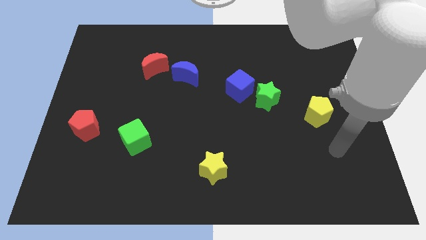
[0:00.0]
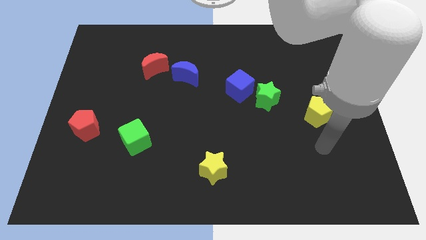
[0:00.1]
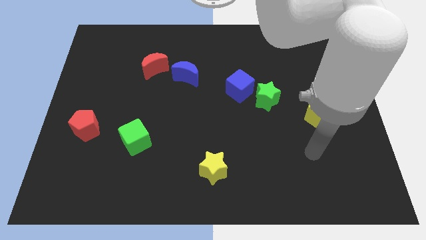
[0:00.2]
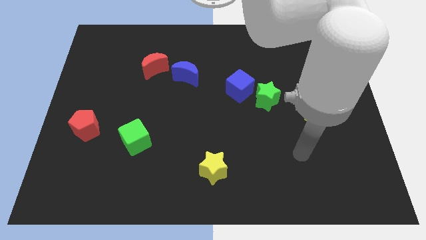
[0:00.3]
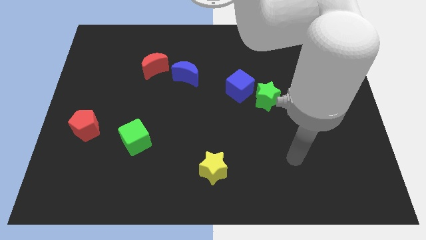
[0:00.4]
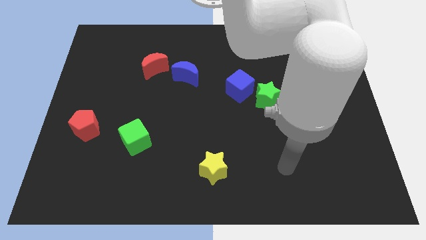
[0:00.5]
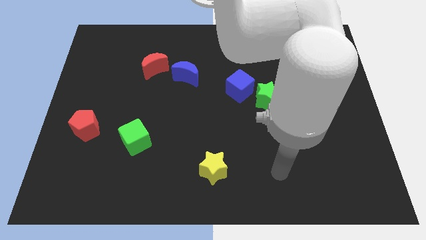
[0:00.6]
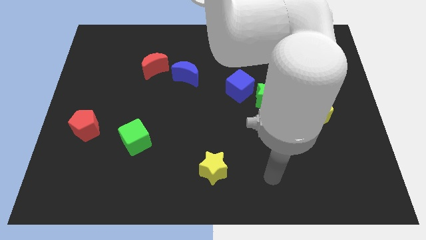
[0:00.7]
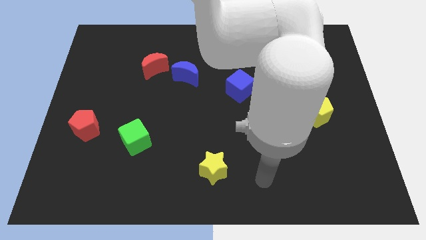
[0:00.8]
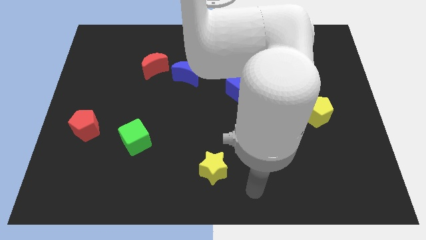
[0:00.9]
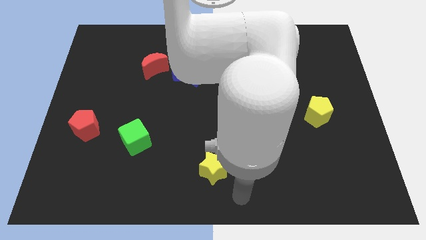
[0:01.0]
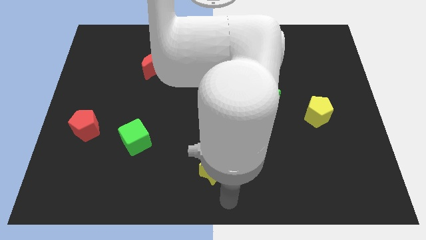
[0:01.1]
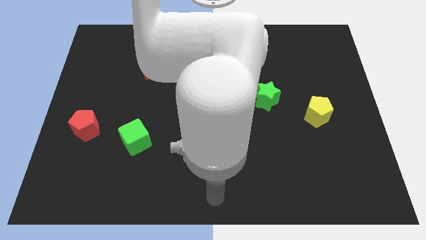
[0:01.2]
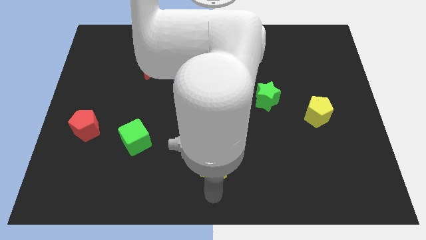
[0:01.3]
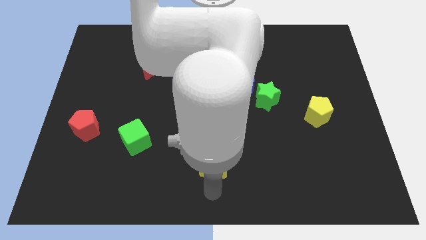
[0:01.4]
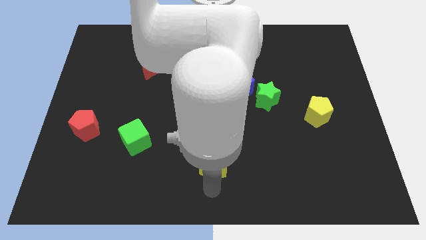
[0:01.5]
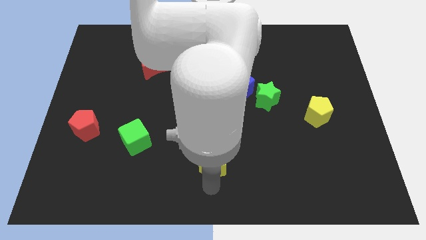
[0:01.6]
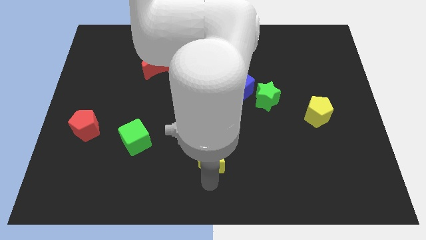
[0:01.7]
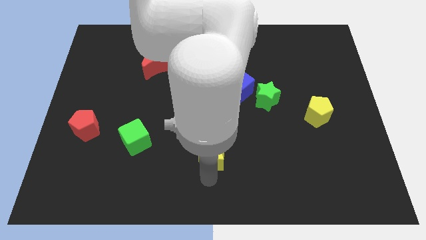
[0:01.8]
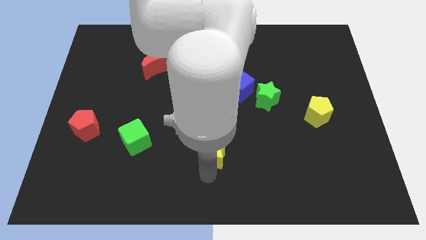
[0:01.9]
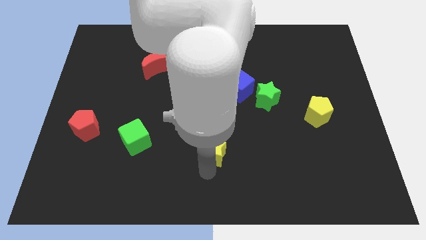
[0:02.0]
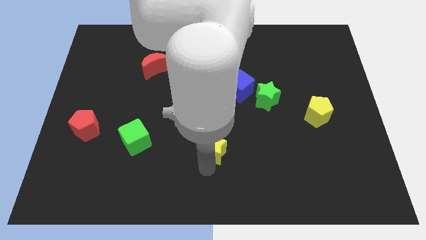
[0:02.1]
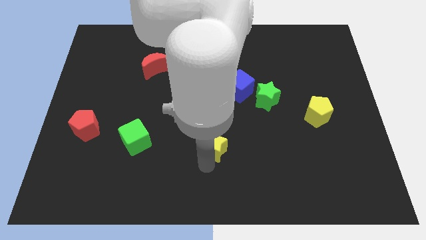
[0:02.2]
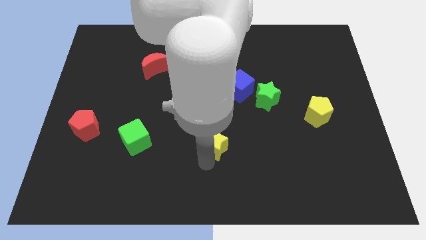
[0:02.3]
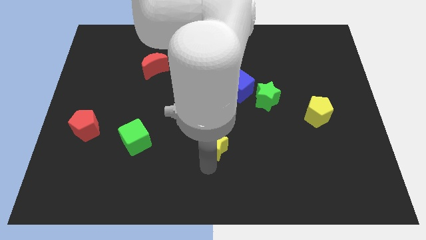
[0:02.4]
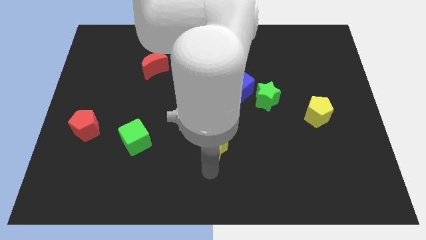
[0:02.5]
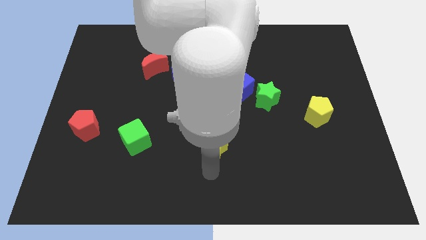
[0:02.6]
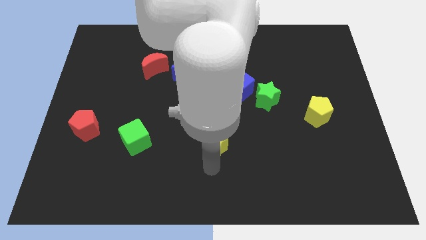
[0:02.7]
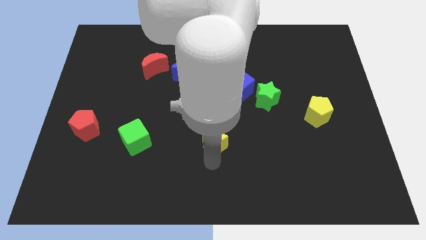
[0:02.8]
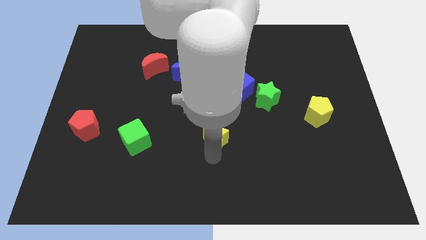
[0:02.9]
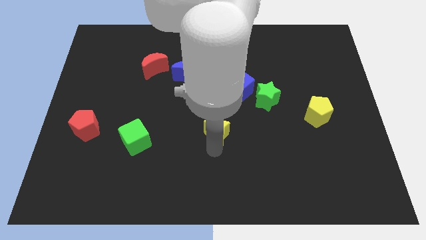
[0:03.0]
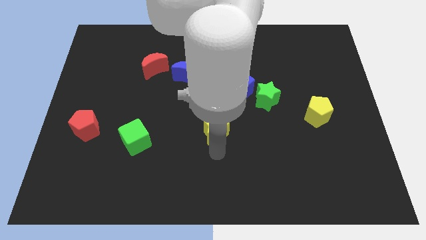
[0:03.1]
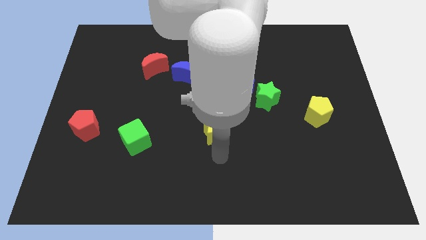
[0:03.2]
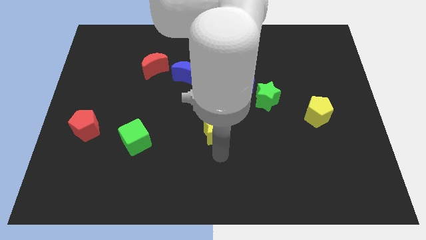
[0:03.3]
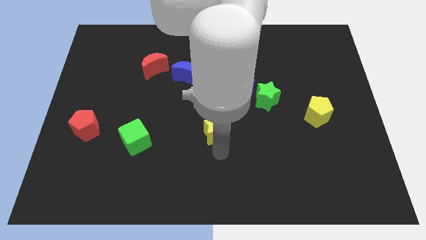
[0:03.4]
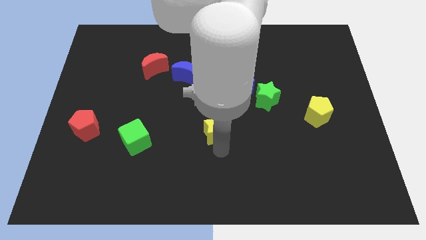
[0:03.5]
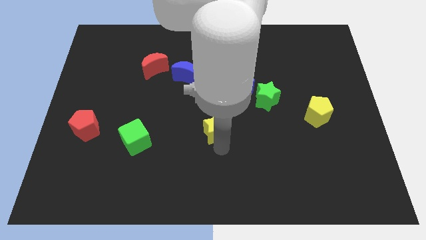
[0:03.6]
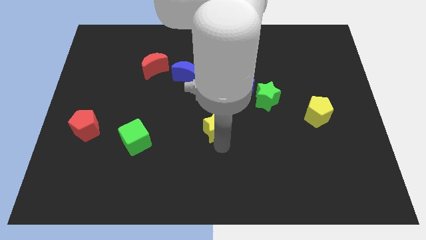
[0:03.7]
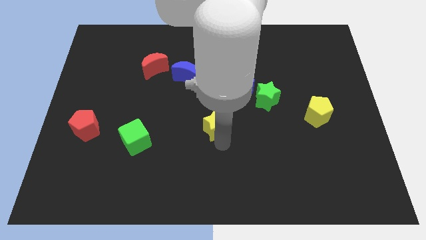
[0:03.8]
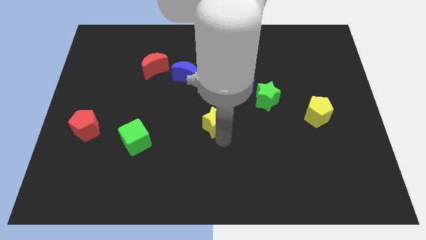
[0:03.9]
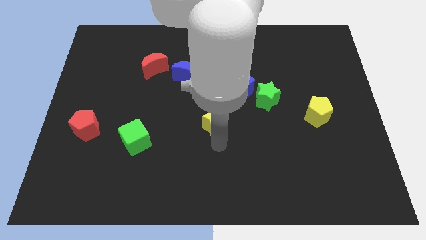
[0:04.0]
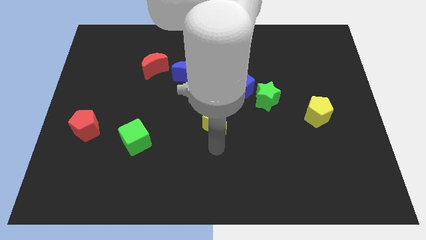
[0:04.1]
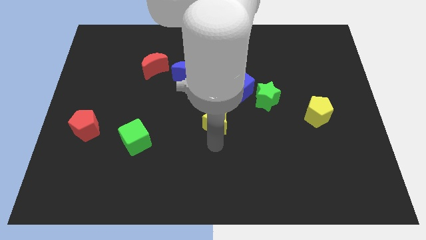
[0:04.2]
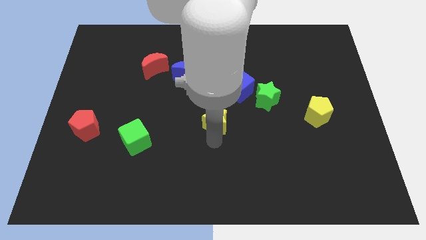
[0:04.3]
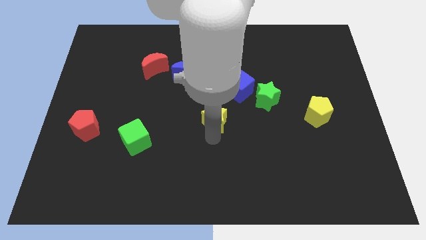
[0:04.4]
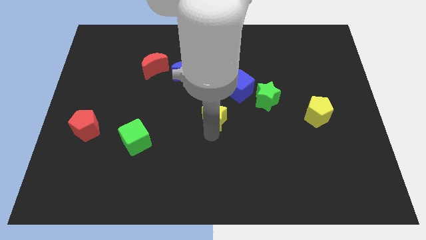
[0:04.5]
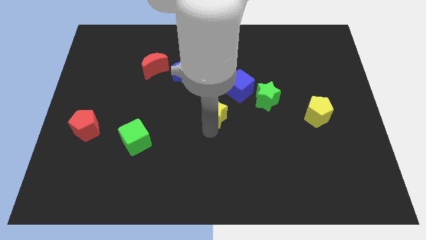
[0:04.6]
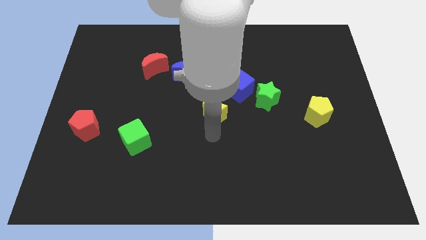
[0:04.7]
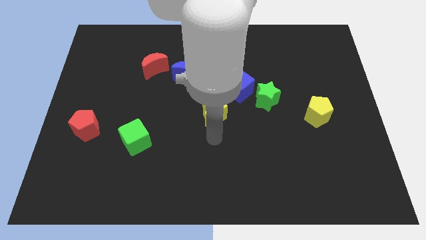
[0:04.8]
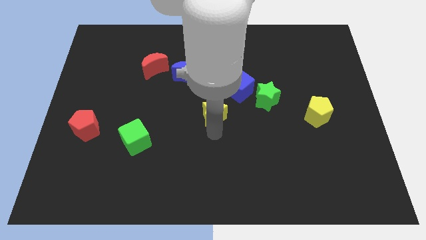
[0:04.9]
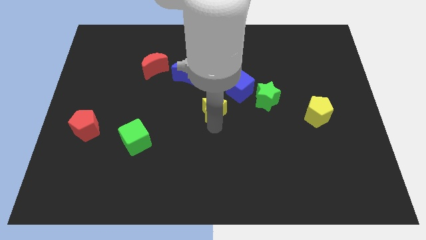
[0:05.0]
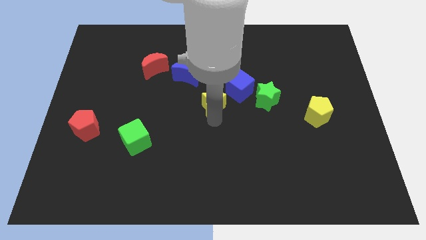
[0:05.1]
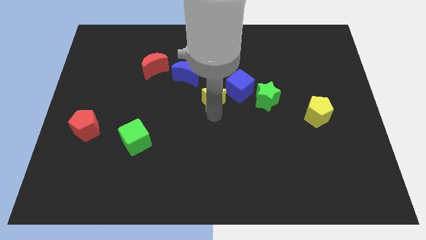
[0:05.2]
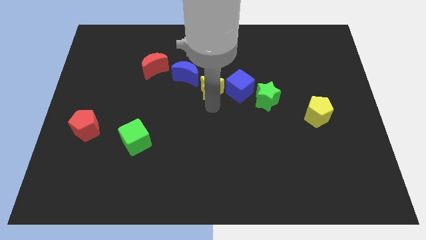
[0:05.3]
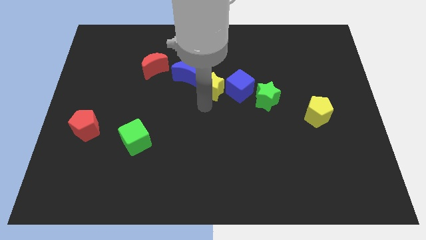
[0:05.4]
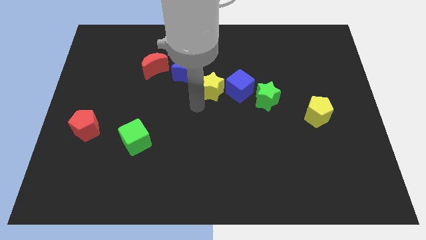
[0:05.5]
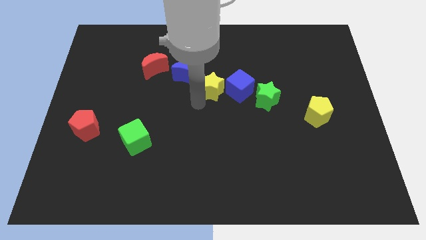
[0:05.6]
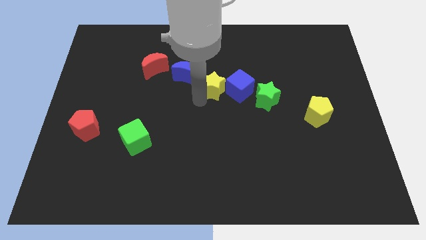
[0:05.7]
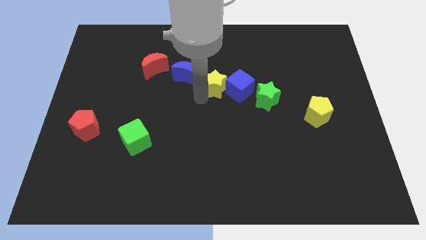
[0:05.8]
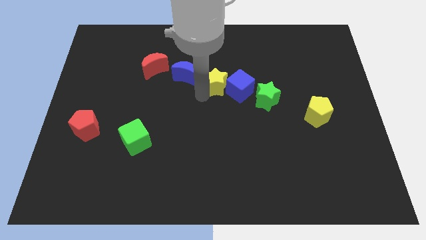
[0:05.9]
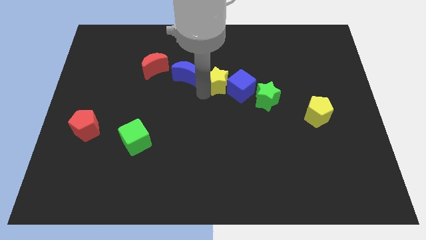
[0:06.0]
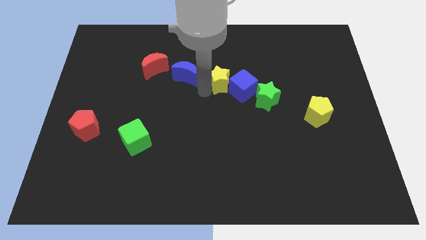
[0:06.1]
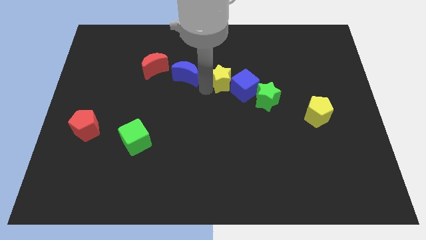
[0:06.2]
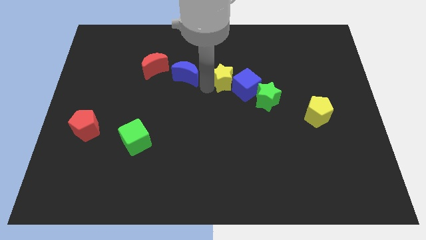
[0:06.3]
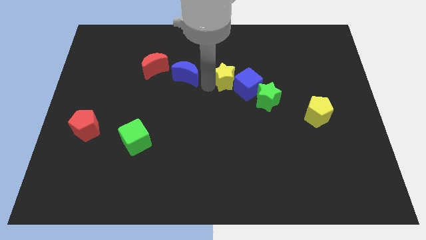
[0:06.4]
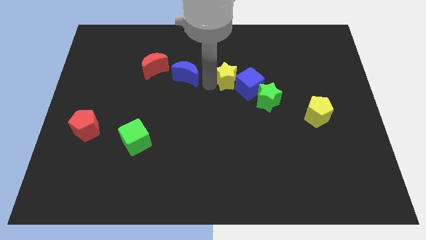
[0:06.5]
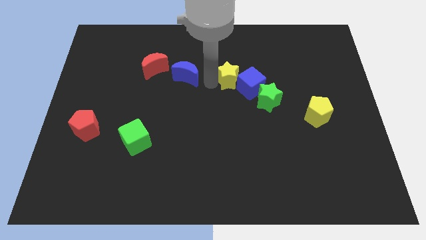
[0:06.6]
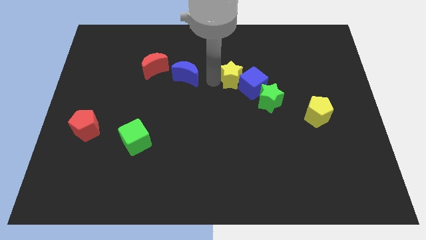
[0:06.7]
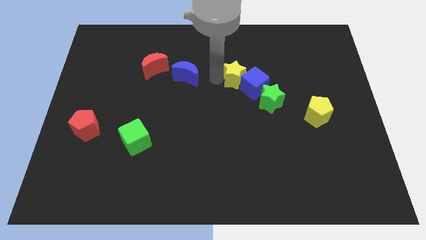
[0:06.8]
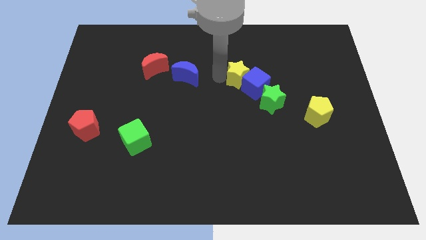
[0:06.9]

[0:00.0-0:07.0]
push the yellow star above the blue cube

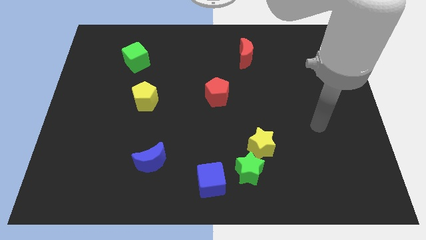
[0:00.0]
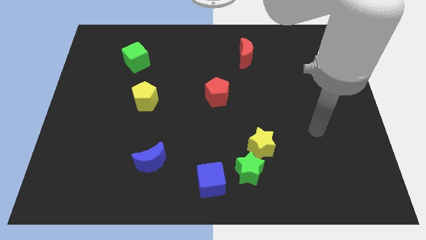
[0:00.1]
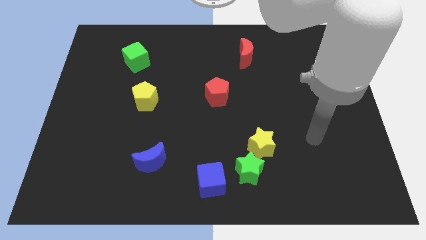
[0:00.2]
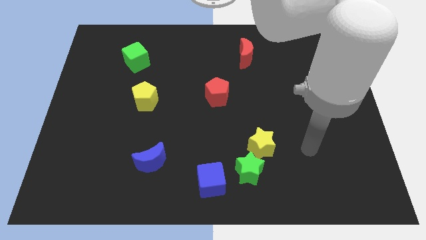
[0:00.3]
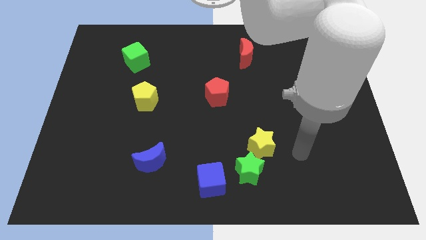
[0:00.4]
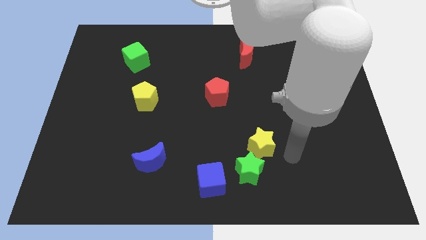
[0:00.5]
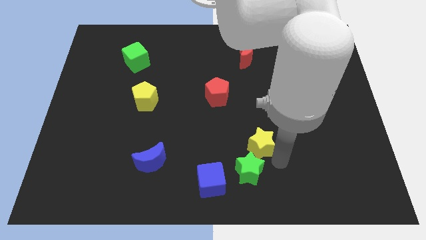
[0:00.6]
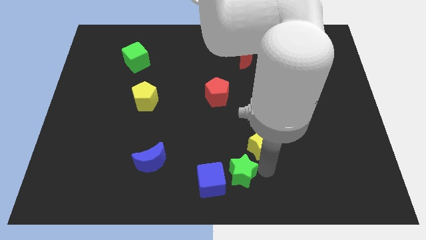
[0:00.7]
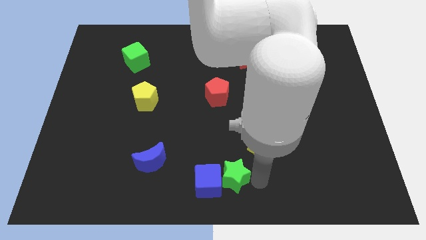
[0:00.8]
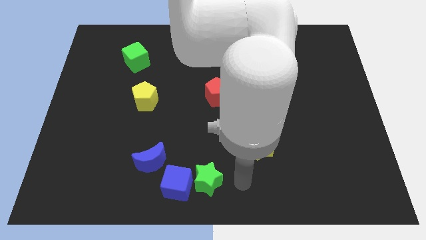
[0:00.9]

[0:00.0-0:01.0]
put the blue cube to the bottom right of the blue moon
